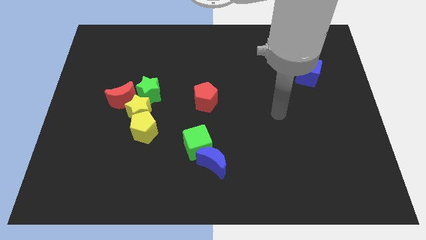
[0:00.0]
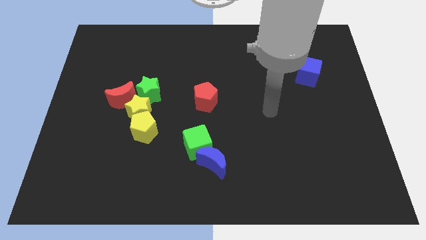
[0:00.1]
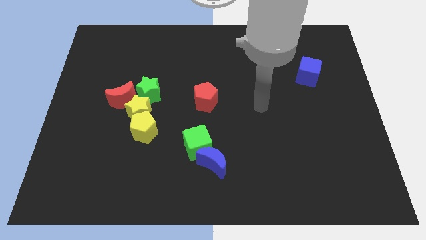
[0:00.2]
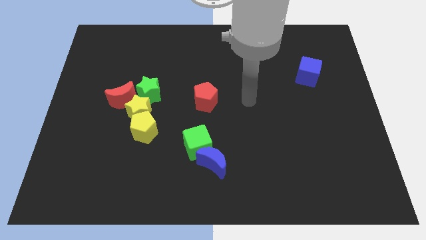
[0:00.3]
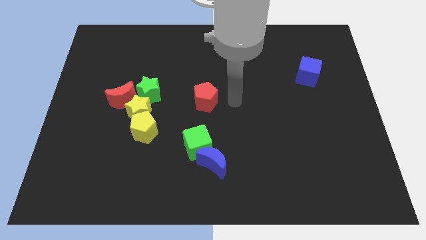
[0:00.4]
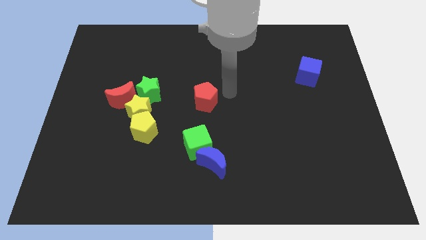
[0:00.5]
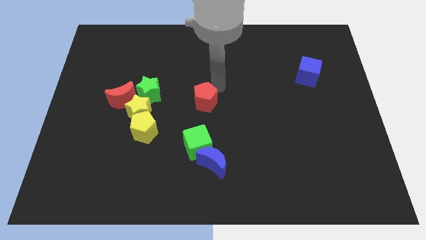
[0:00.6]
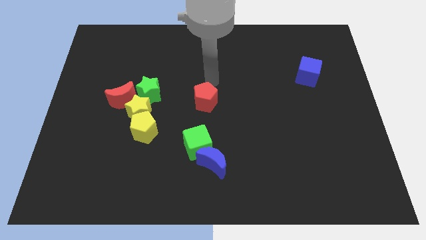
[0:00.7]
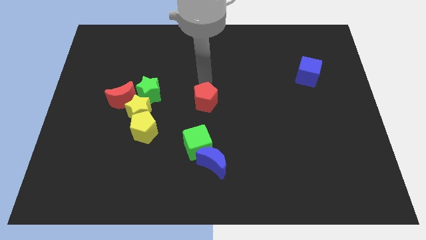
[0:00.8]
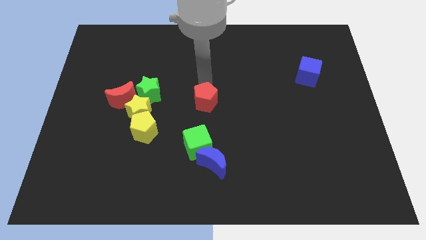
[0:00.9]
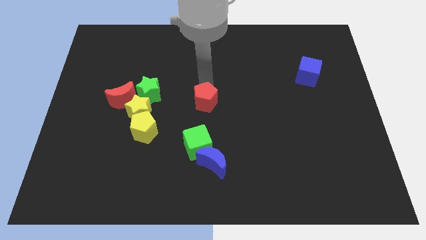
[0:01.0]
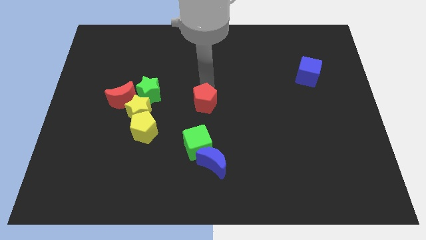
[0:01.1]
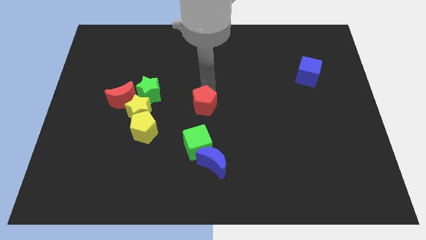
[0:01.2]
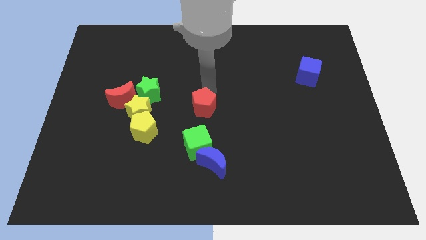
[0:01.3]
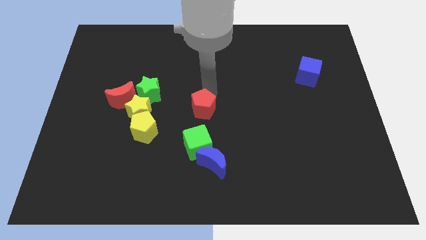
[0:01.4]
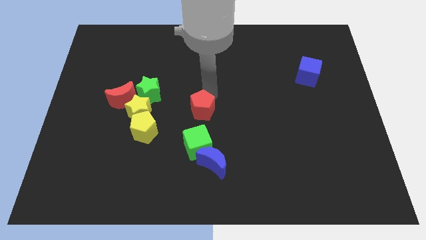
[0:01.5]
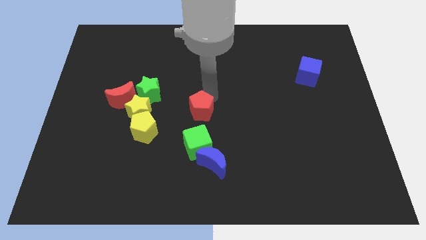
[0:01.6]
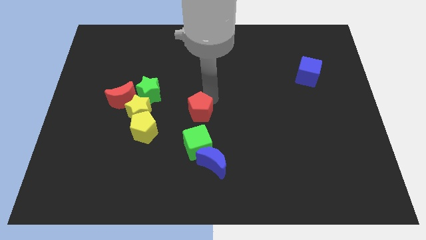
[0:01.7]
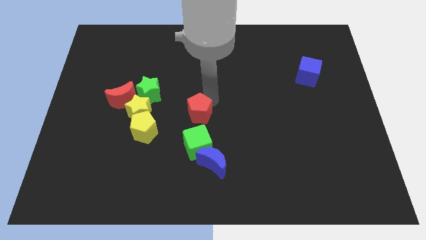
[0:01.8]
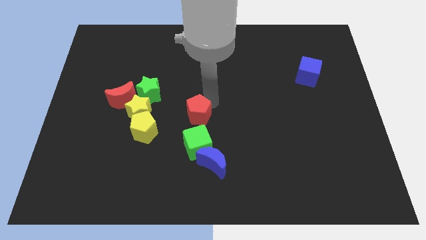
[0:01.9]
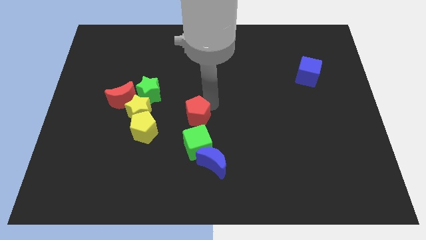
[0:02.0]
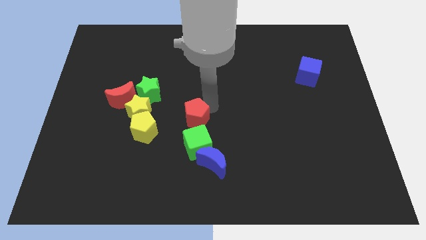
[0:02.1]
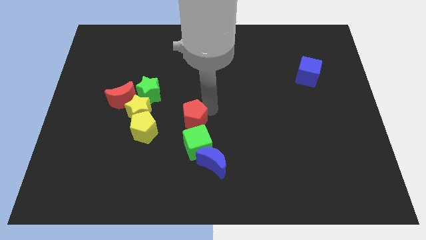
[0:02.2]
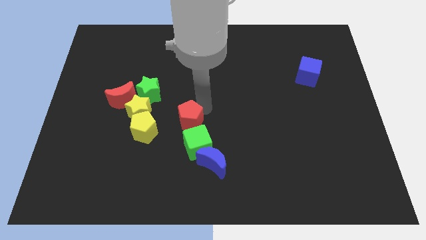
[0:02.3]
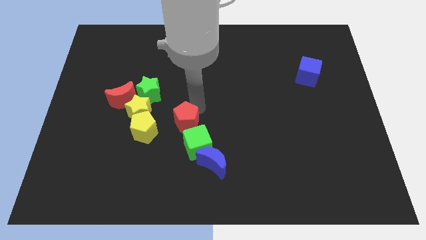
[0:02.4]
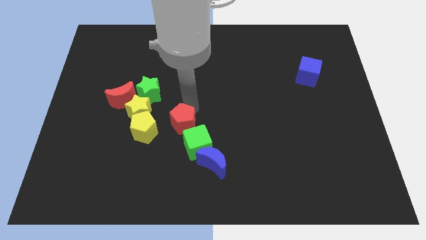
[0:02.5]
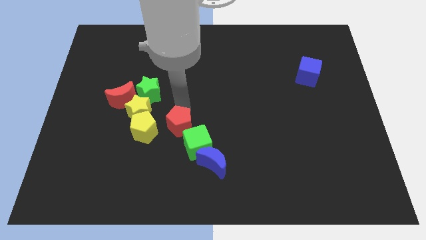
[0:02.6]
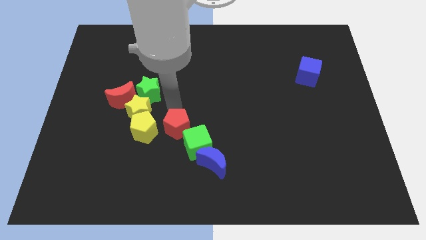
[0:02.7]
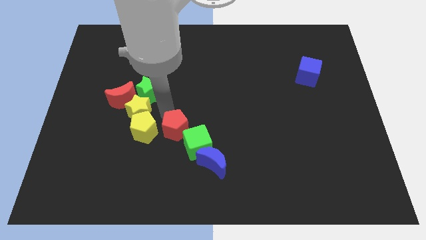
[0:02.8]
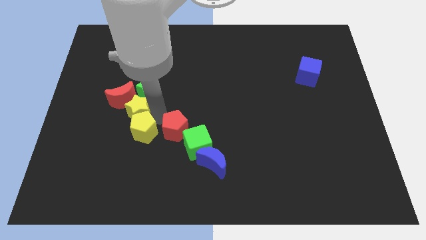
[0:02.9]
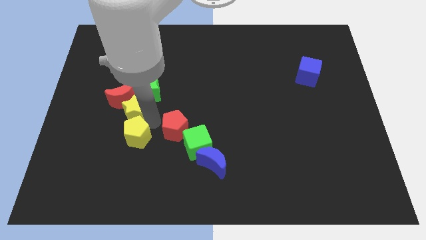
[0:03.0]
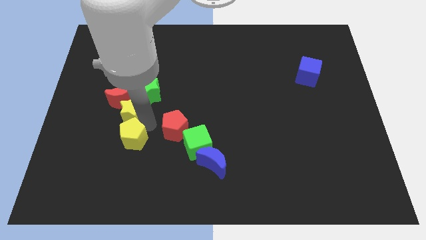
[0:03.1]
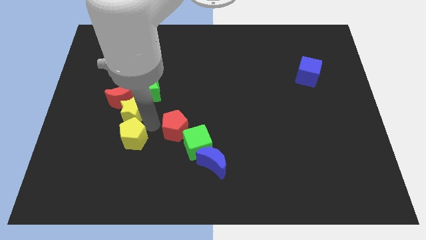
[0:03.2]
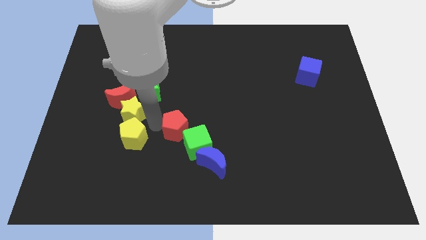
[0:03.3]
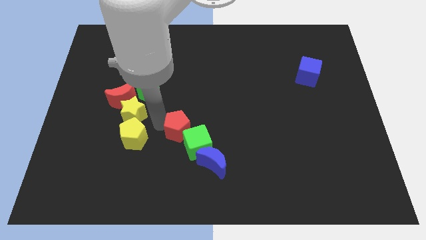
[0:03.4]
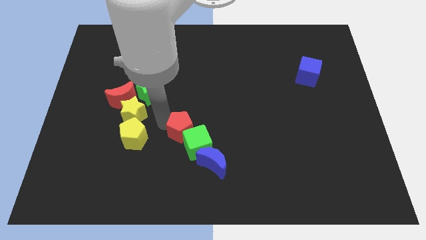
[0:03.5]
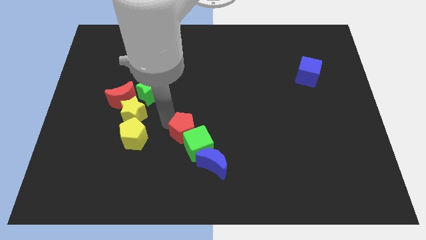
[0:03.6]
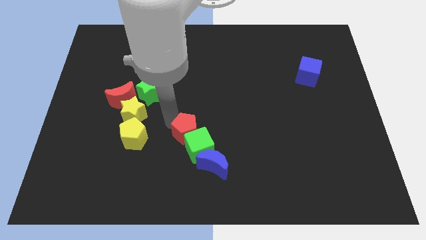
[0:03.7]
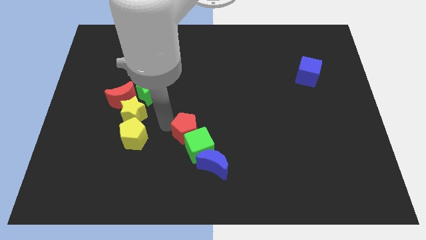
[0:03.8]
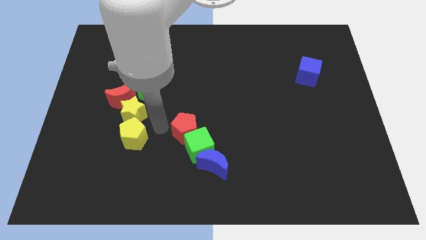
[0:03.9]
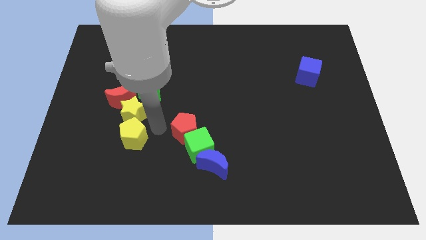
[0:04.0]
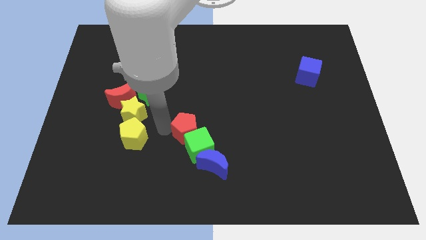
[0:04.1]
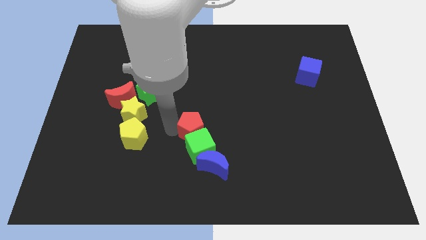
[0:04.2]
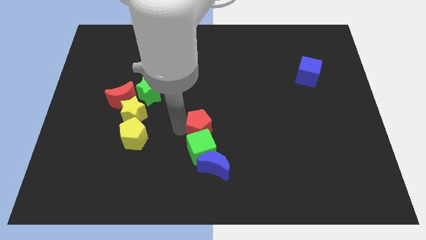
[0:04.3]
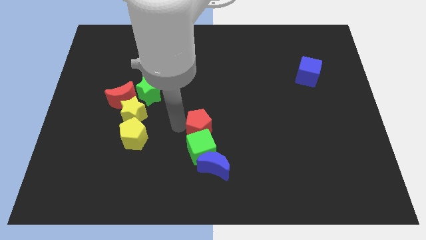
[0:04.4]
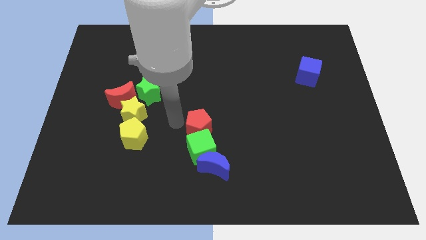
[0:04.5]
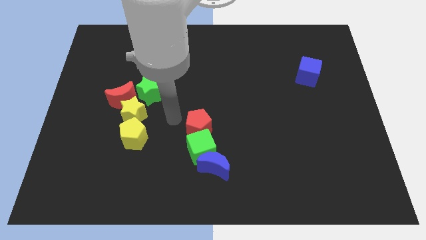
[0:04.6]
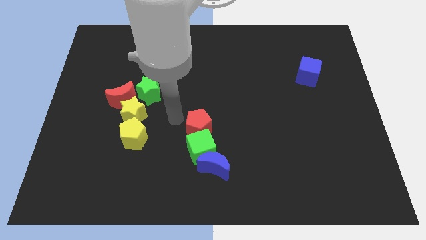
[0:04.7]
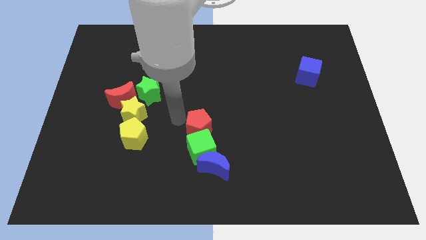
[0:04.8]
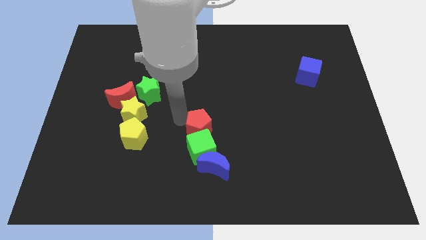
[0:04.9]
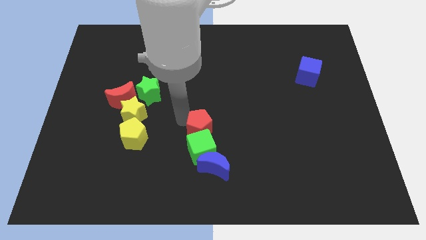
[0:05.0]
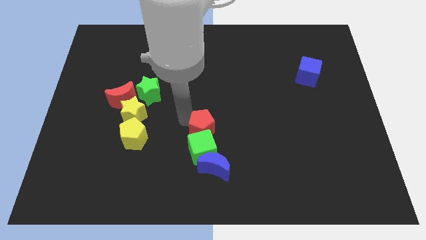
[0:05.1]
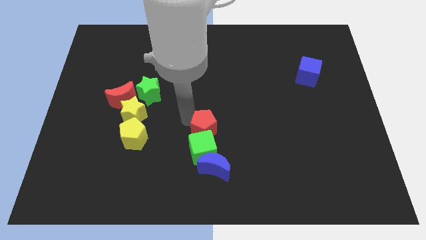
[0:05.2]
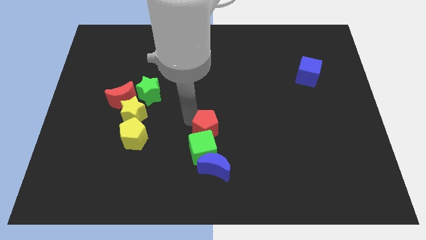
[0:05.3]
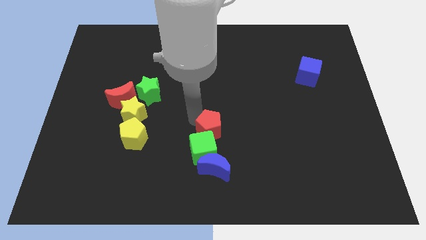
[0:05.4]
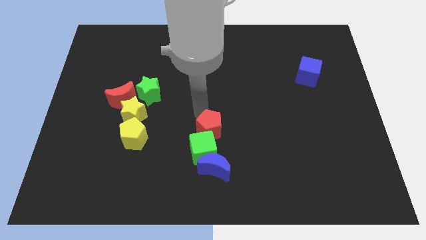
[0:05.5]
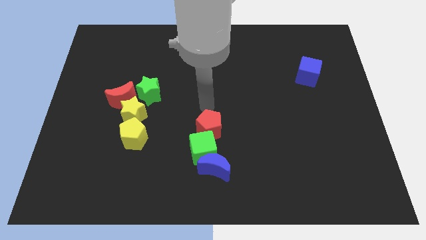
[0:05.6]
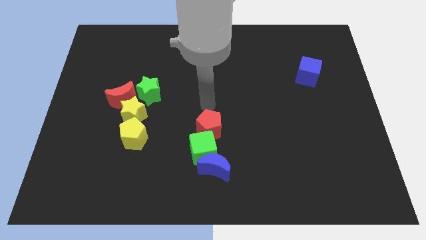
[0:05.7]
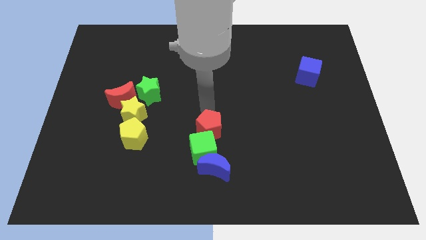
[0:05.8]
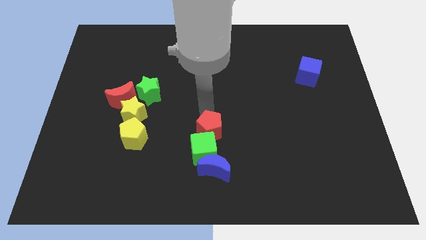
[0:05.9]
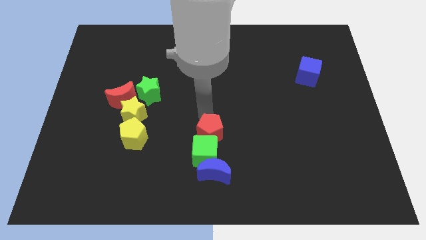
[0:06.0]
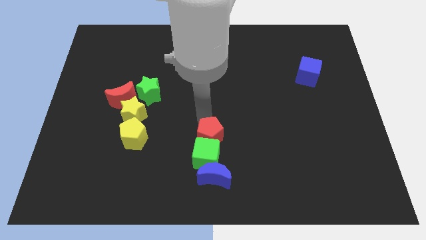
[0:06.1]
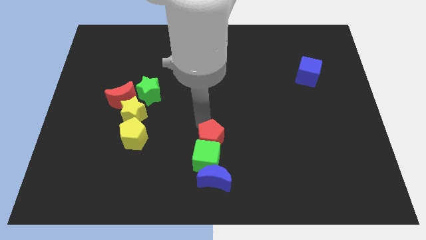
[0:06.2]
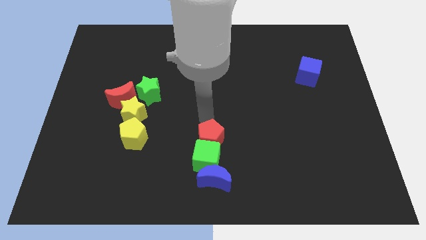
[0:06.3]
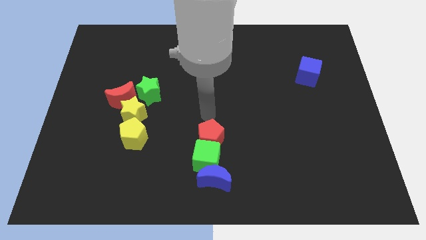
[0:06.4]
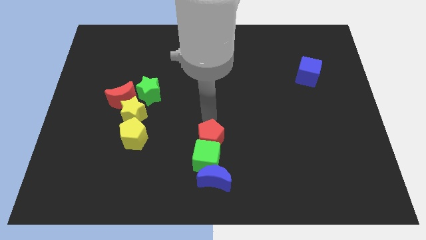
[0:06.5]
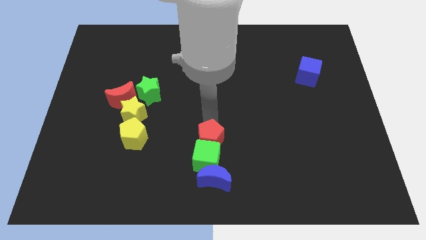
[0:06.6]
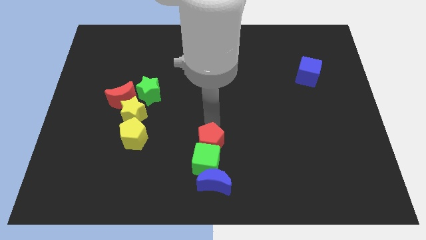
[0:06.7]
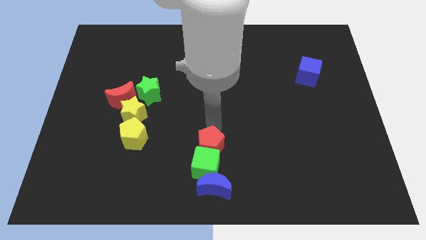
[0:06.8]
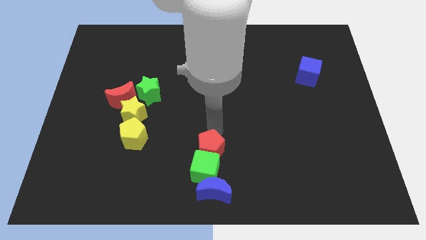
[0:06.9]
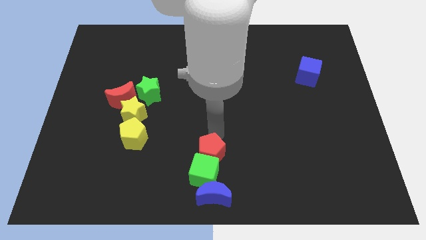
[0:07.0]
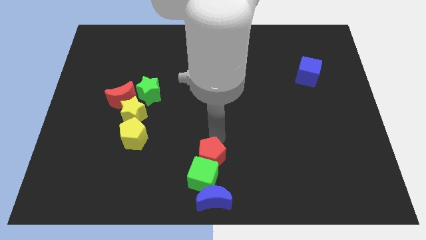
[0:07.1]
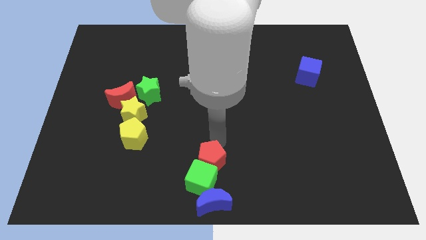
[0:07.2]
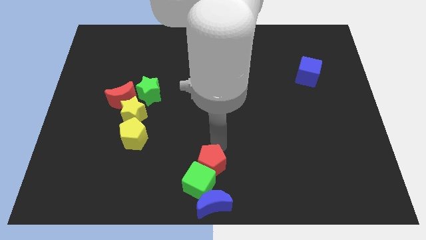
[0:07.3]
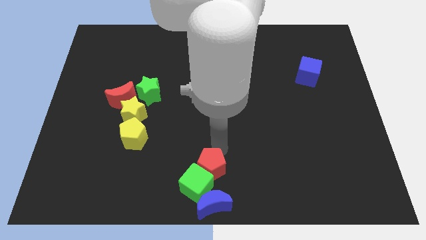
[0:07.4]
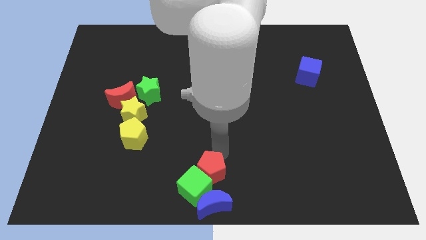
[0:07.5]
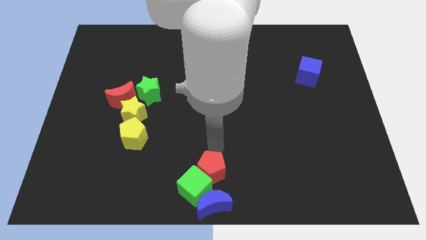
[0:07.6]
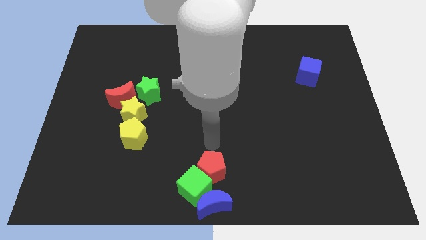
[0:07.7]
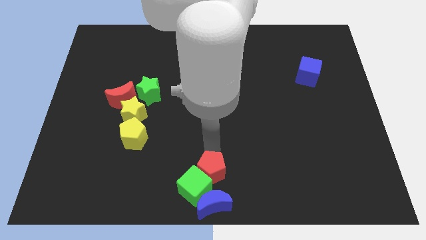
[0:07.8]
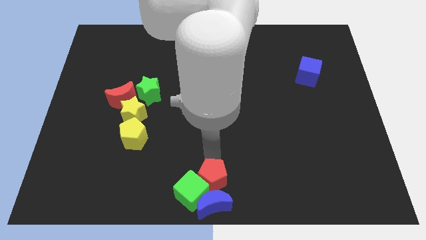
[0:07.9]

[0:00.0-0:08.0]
push the red pentagon next to the blue moon
